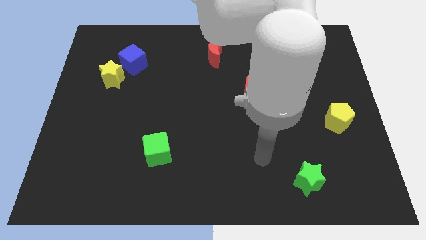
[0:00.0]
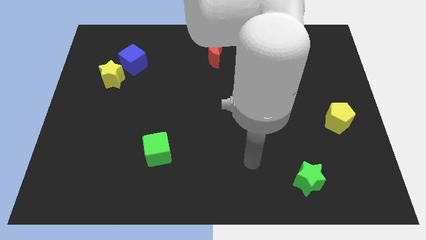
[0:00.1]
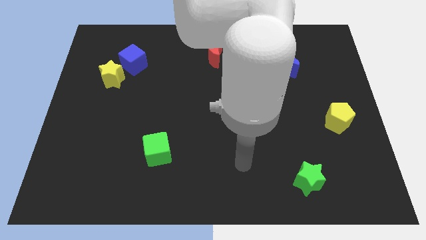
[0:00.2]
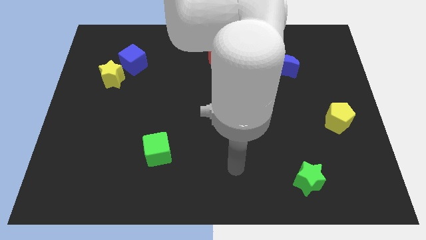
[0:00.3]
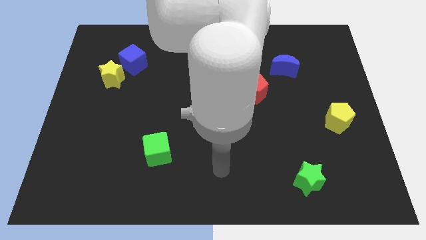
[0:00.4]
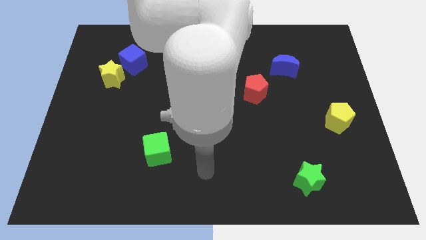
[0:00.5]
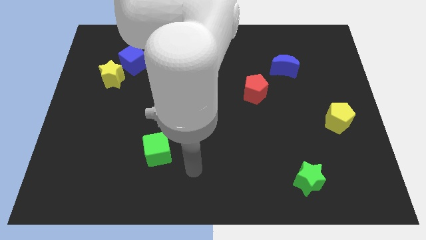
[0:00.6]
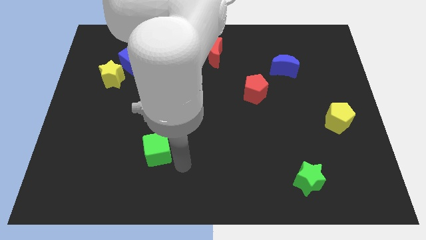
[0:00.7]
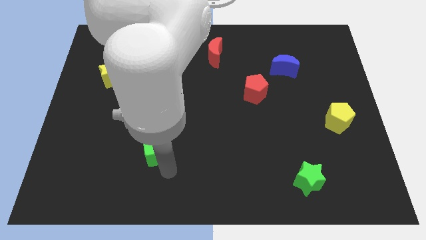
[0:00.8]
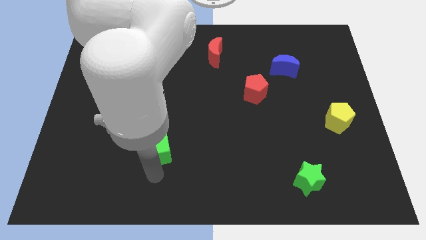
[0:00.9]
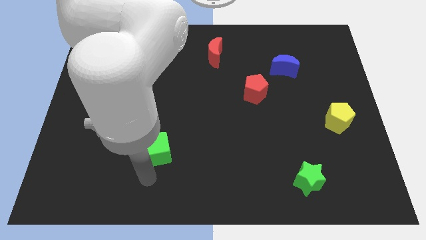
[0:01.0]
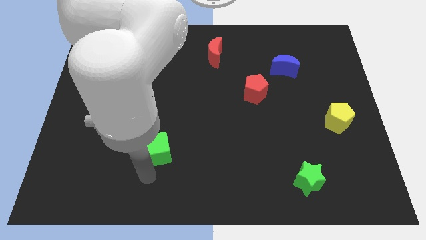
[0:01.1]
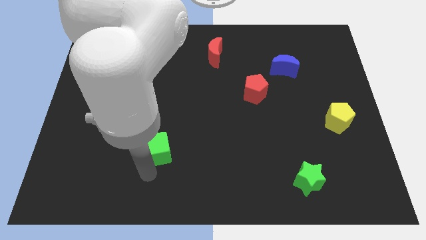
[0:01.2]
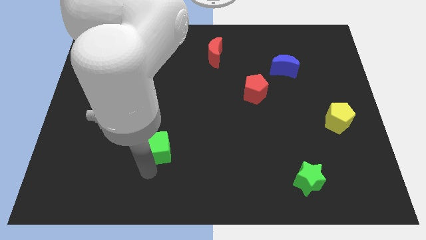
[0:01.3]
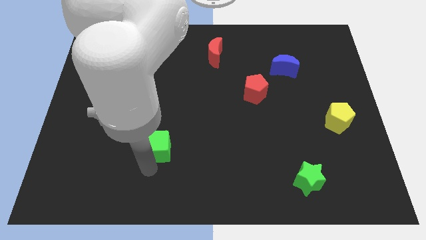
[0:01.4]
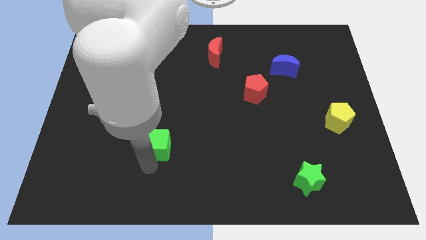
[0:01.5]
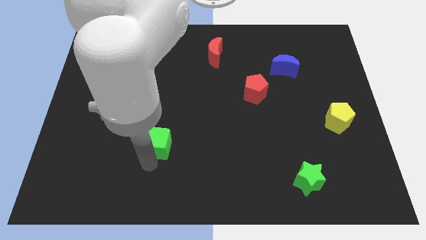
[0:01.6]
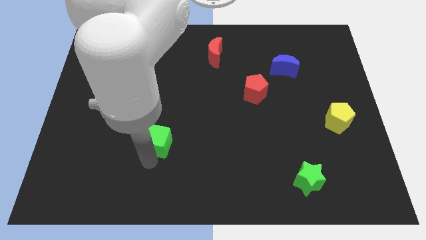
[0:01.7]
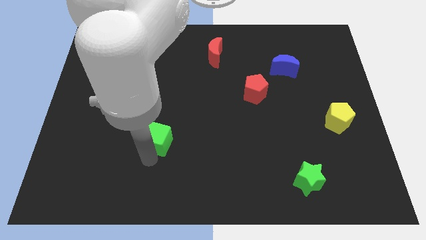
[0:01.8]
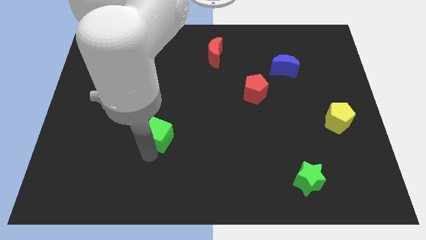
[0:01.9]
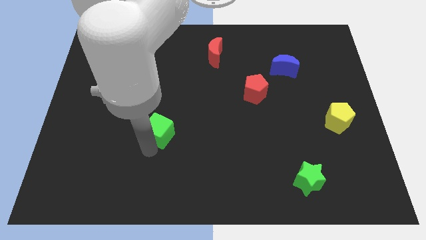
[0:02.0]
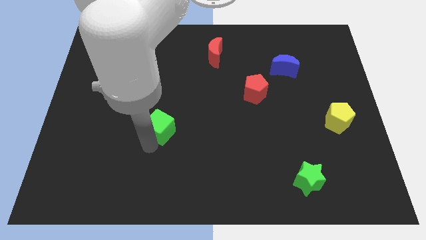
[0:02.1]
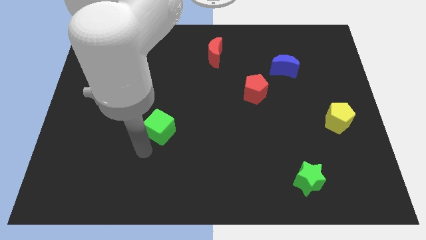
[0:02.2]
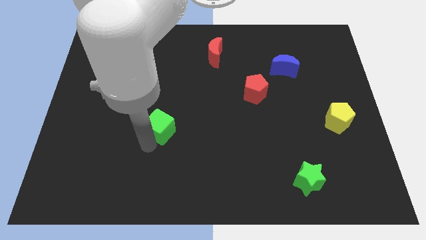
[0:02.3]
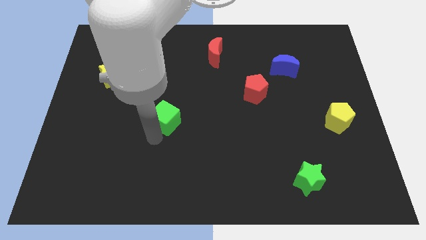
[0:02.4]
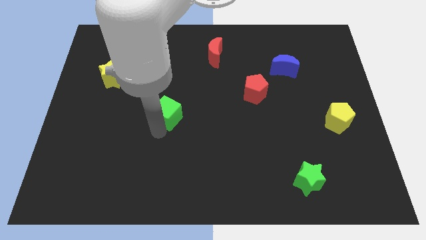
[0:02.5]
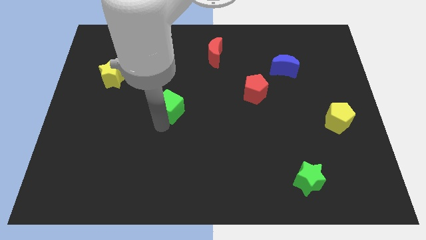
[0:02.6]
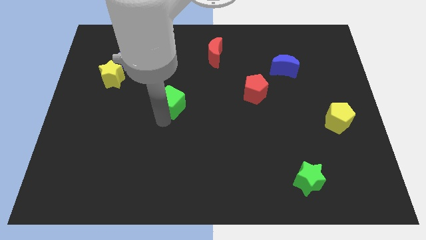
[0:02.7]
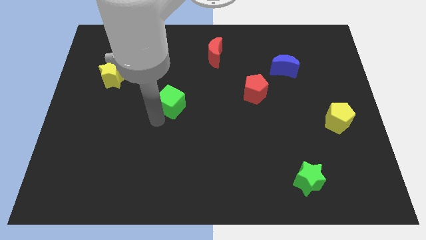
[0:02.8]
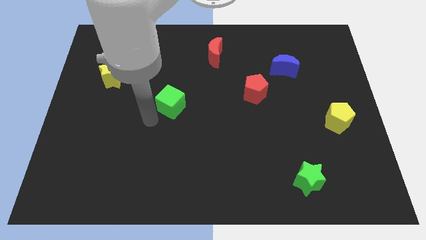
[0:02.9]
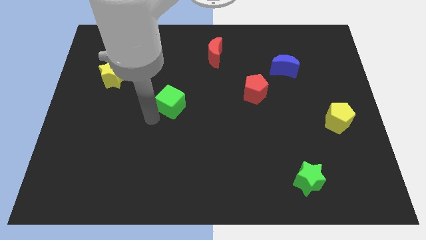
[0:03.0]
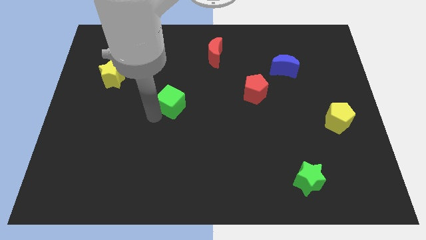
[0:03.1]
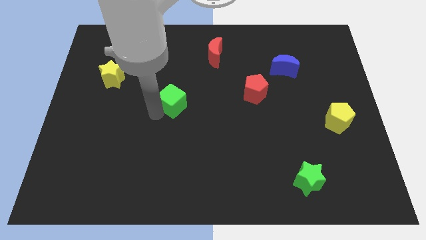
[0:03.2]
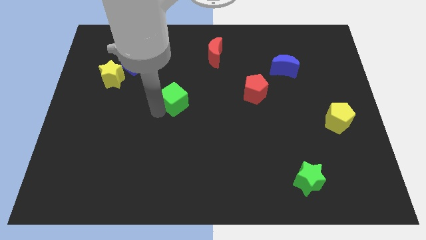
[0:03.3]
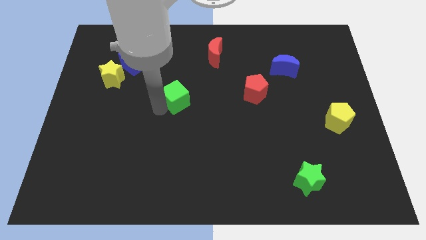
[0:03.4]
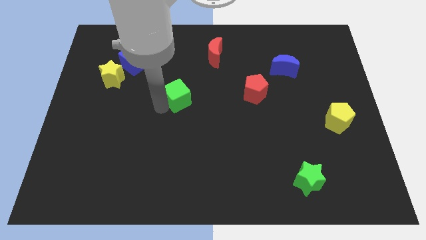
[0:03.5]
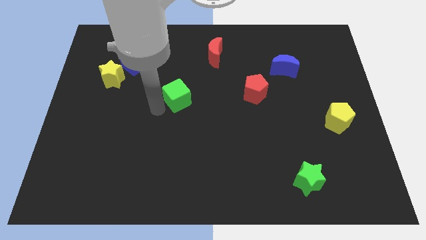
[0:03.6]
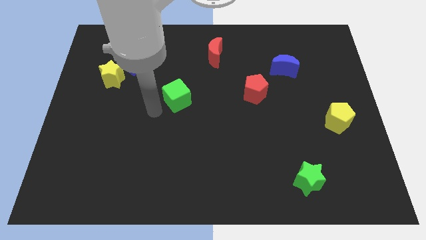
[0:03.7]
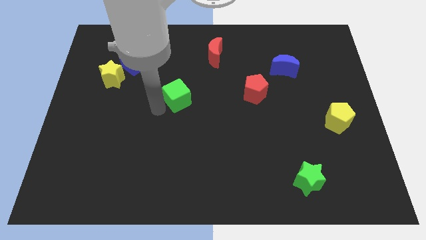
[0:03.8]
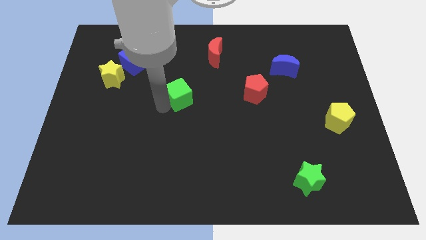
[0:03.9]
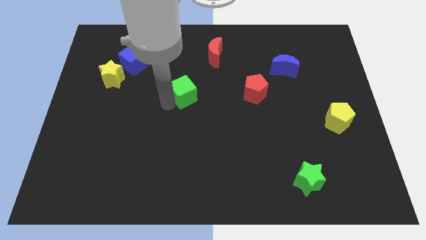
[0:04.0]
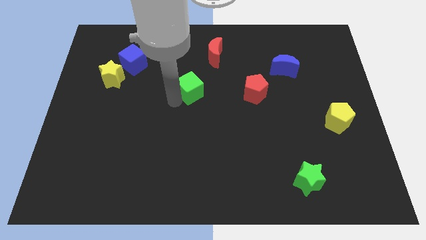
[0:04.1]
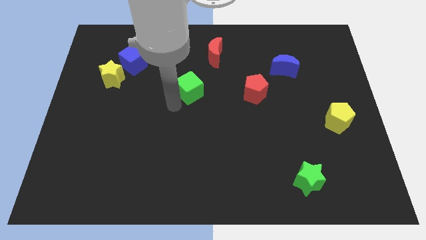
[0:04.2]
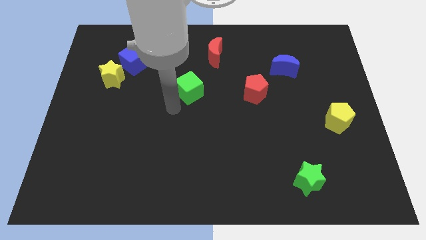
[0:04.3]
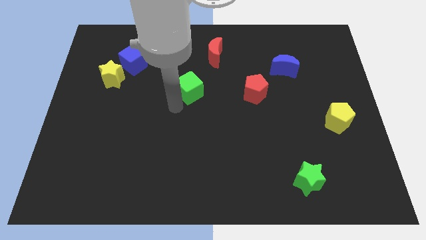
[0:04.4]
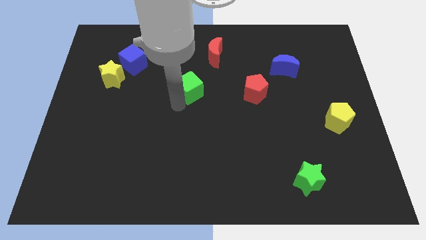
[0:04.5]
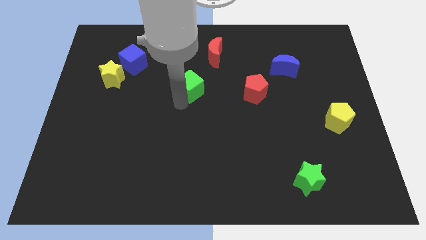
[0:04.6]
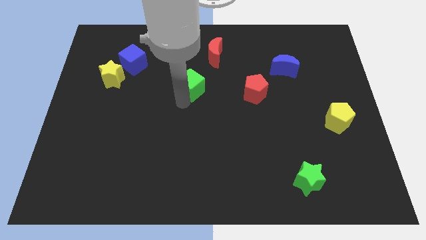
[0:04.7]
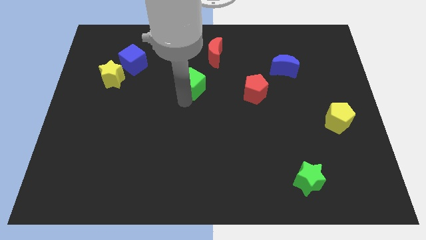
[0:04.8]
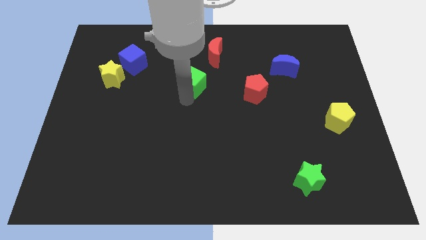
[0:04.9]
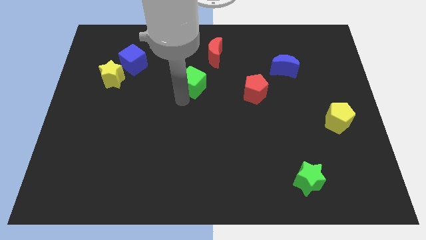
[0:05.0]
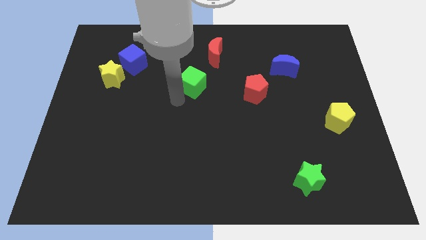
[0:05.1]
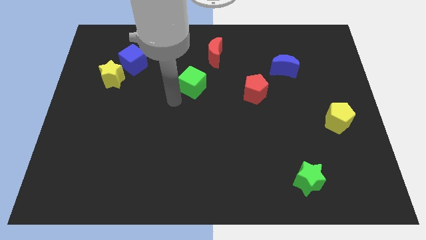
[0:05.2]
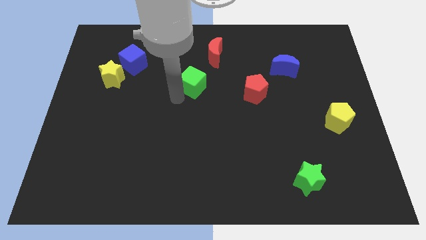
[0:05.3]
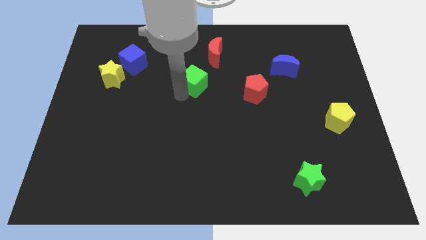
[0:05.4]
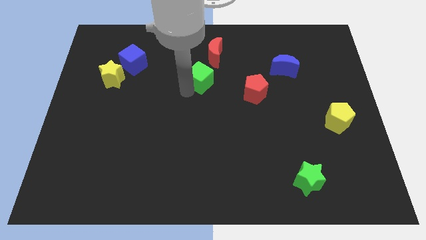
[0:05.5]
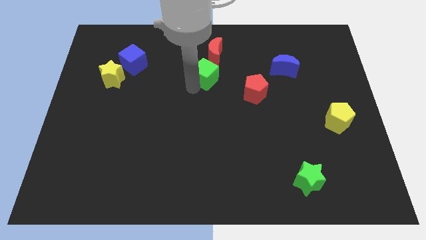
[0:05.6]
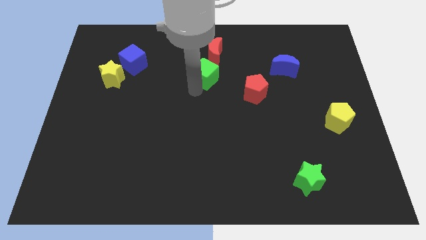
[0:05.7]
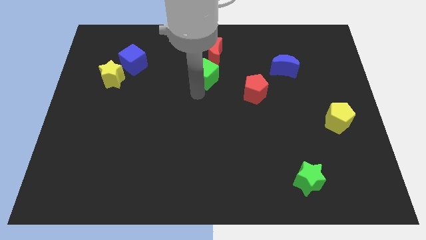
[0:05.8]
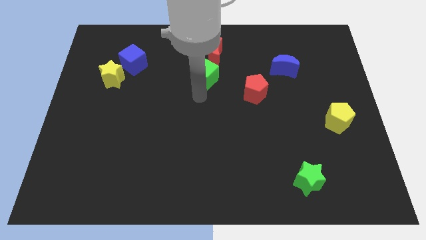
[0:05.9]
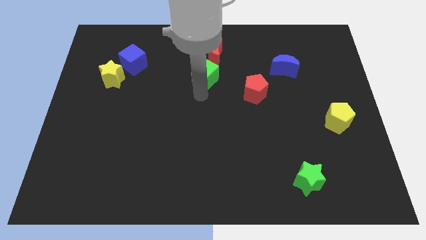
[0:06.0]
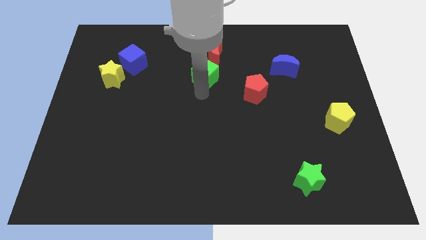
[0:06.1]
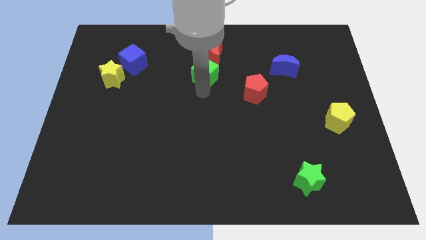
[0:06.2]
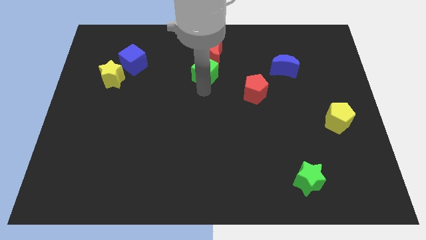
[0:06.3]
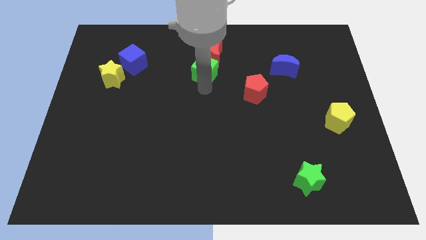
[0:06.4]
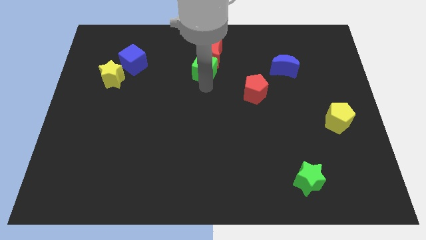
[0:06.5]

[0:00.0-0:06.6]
push the green cube to the red moon
